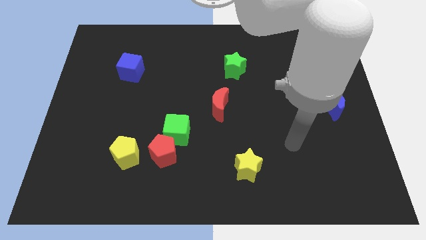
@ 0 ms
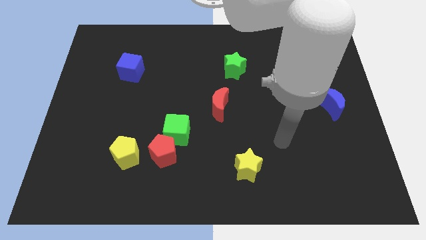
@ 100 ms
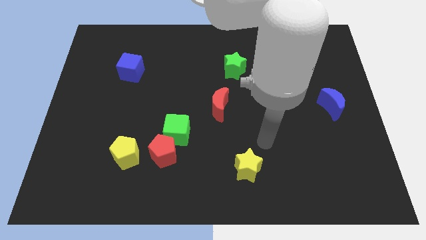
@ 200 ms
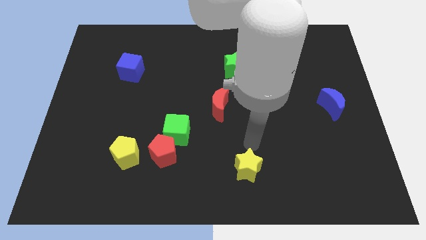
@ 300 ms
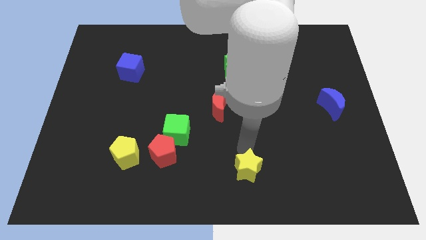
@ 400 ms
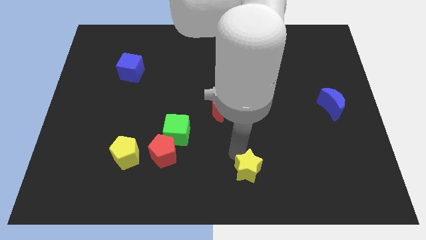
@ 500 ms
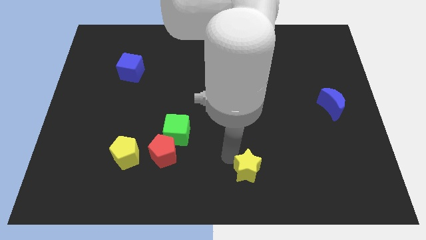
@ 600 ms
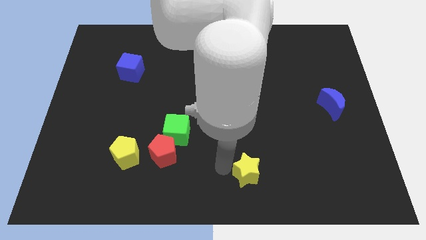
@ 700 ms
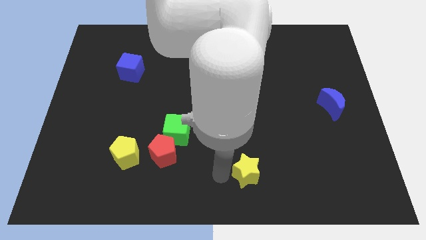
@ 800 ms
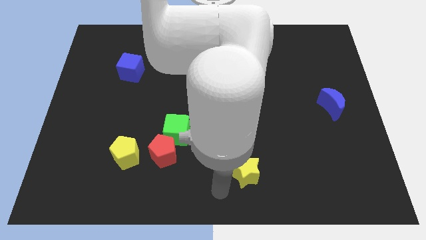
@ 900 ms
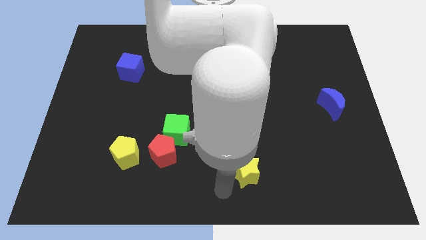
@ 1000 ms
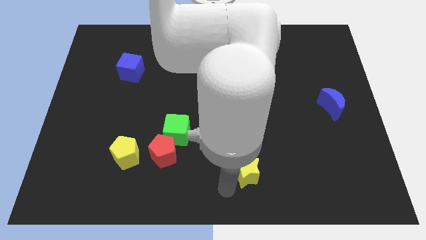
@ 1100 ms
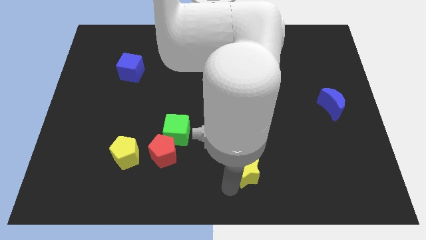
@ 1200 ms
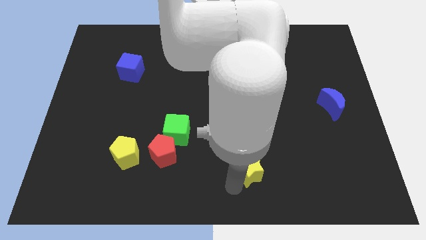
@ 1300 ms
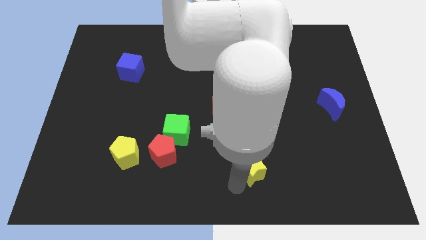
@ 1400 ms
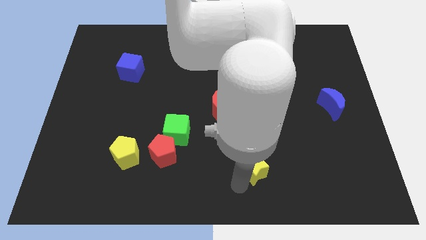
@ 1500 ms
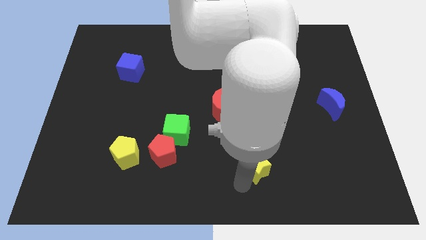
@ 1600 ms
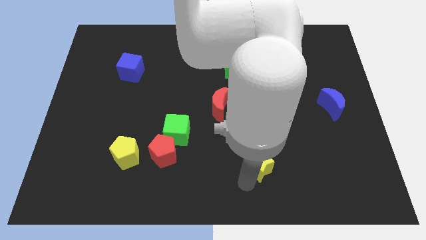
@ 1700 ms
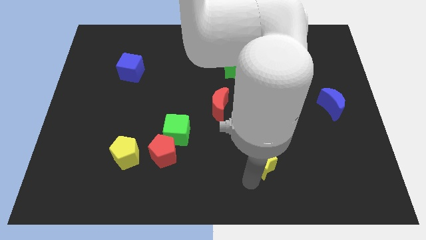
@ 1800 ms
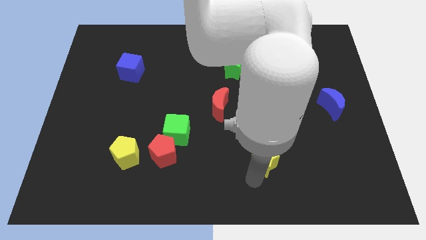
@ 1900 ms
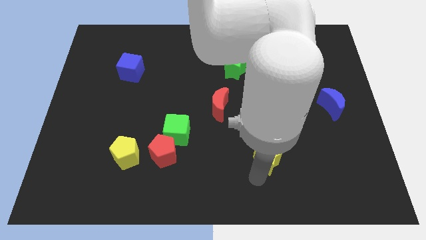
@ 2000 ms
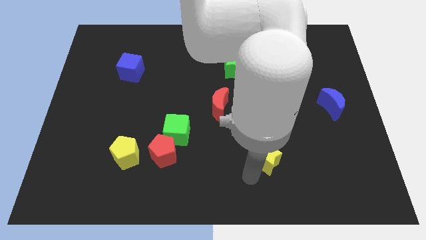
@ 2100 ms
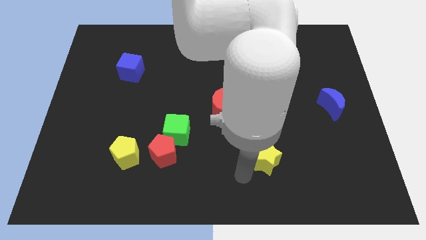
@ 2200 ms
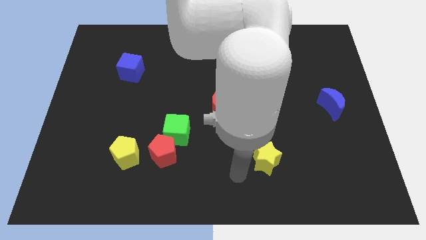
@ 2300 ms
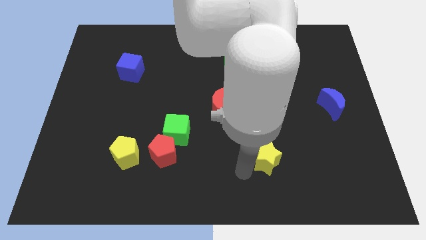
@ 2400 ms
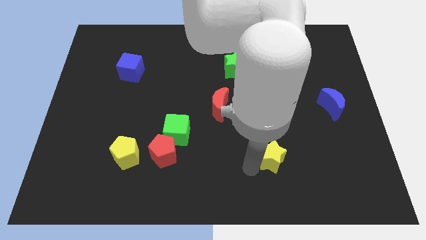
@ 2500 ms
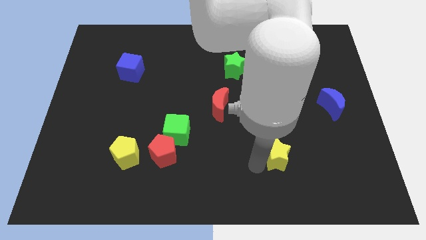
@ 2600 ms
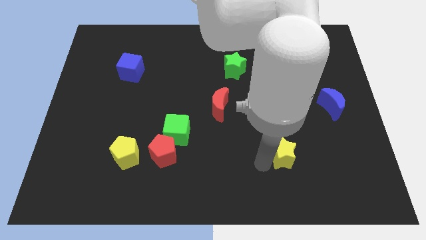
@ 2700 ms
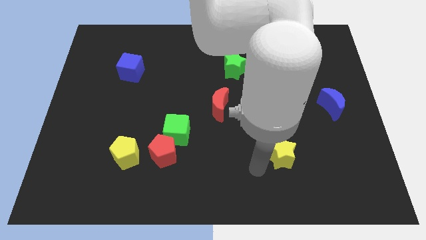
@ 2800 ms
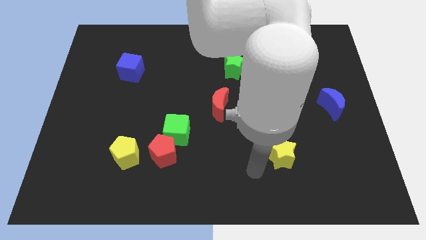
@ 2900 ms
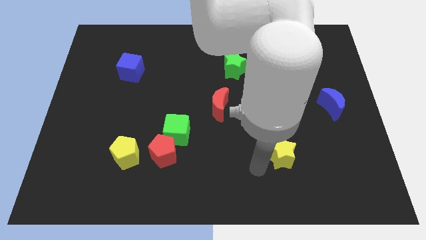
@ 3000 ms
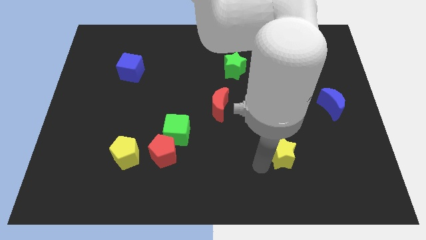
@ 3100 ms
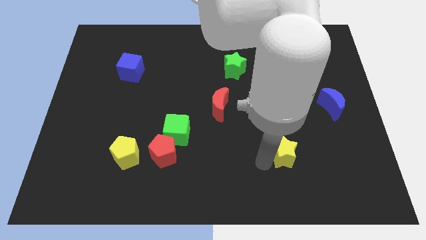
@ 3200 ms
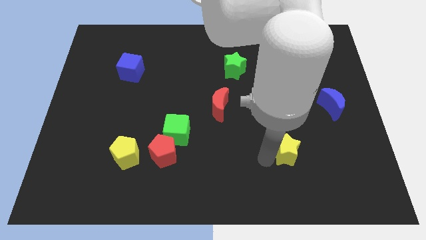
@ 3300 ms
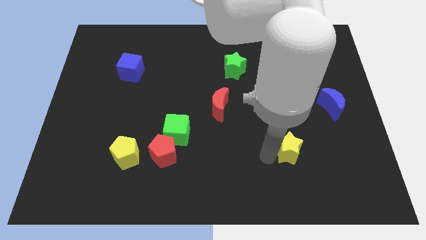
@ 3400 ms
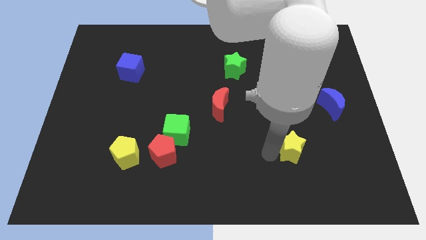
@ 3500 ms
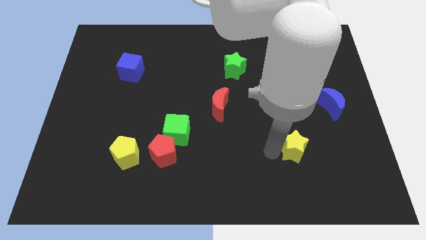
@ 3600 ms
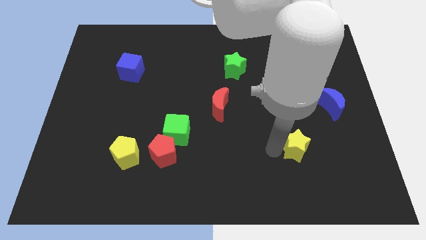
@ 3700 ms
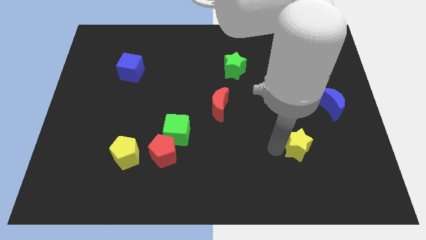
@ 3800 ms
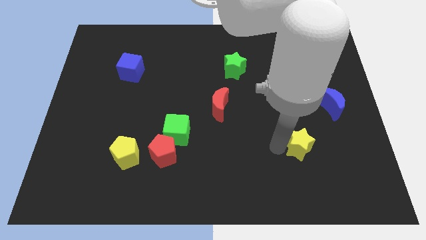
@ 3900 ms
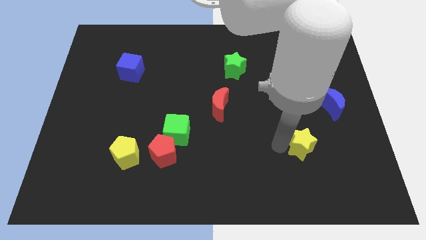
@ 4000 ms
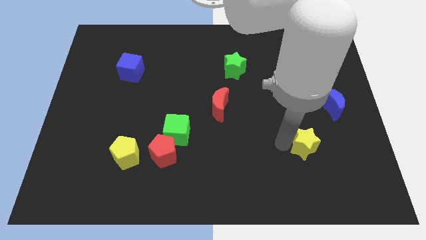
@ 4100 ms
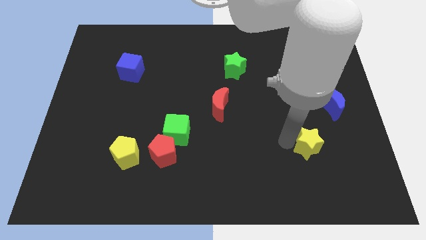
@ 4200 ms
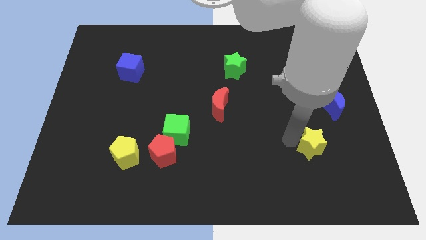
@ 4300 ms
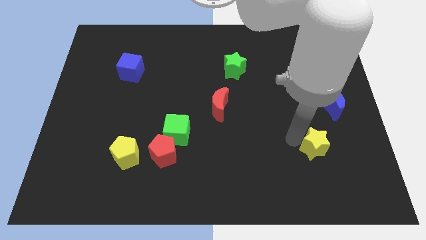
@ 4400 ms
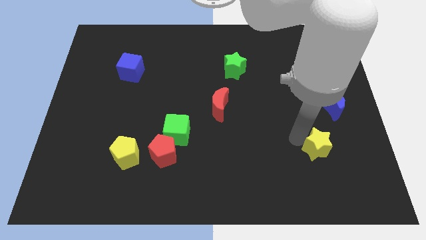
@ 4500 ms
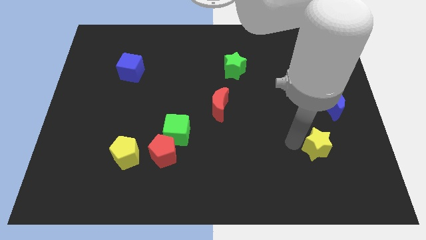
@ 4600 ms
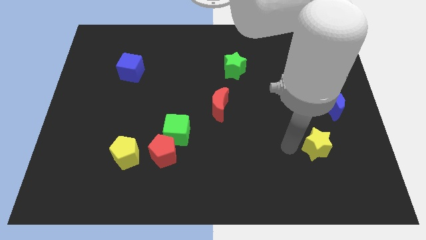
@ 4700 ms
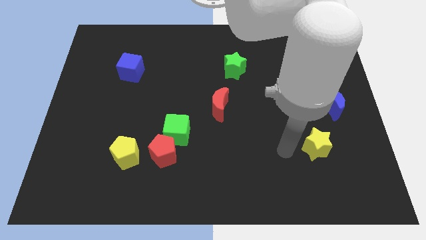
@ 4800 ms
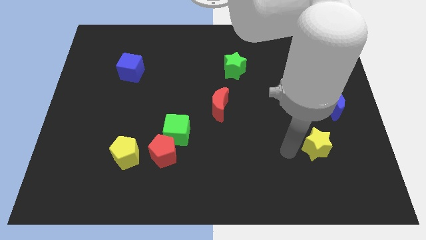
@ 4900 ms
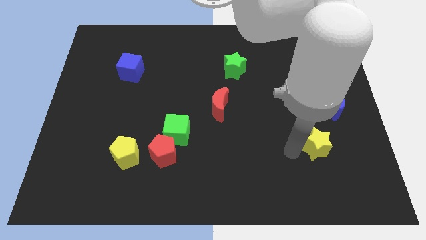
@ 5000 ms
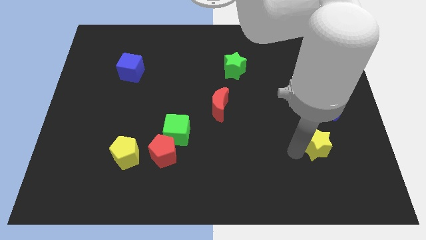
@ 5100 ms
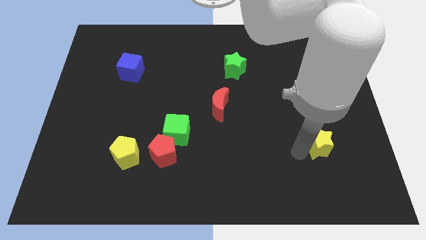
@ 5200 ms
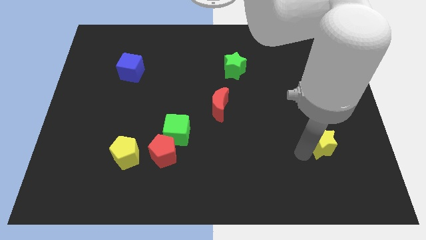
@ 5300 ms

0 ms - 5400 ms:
push the yellow star below the blue moon

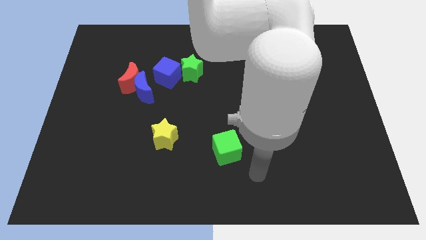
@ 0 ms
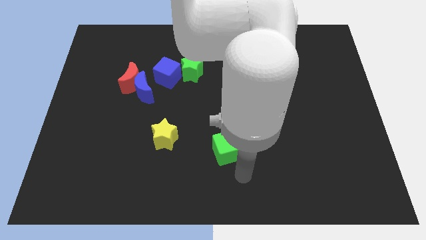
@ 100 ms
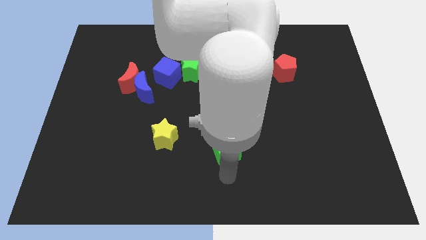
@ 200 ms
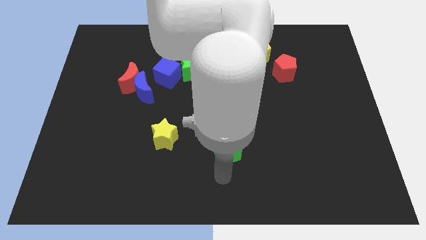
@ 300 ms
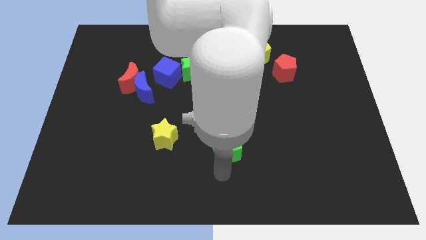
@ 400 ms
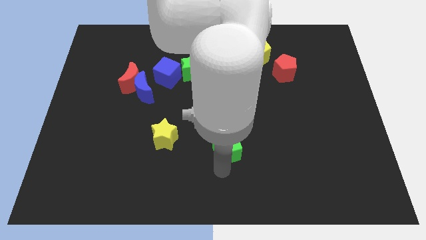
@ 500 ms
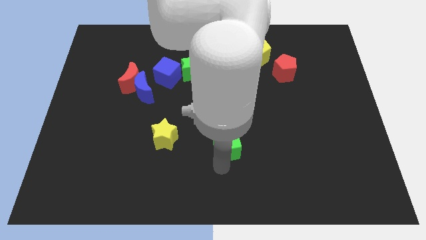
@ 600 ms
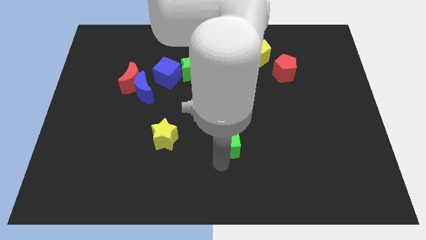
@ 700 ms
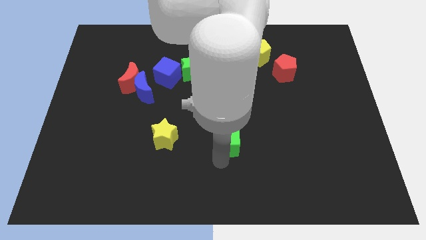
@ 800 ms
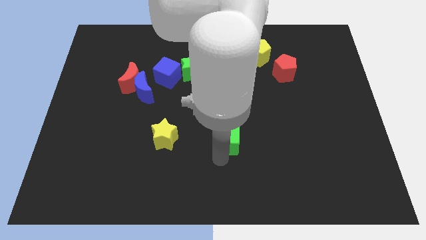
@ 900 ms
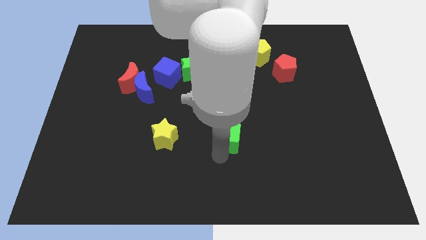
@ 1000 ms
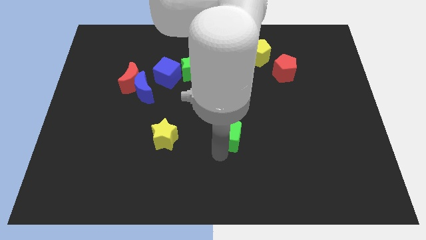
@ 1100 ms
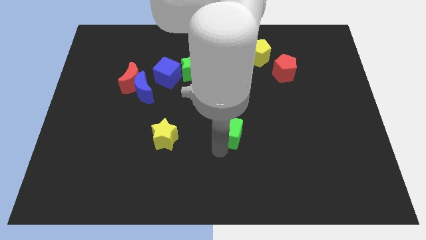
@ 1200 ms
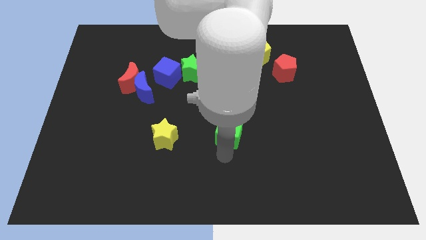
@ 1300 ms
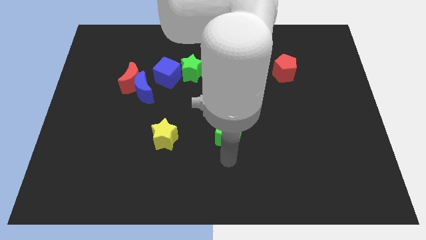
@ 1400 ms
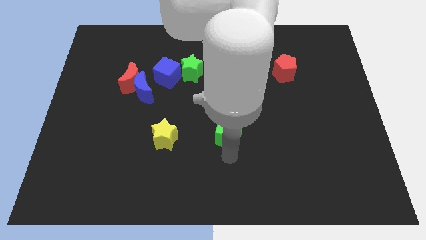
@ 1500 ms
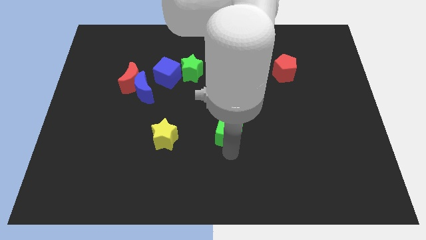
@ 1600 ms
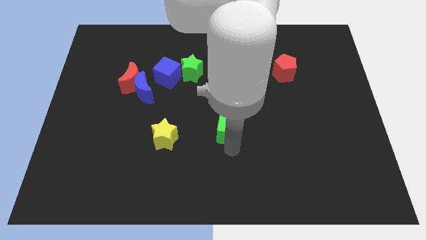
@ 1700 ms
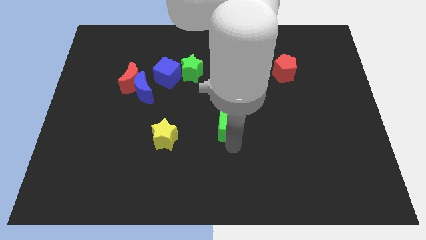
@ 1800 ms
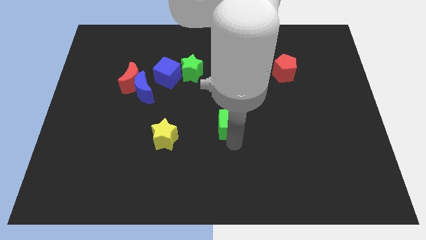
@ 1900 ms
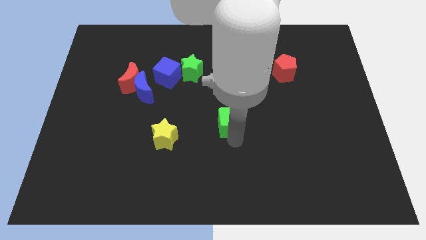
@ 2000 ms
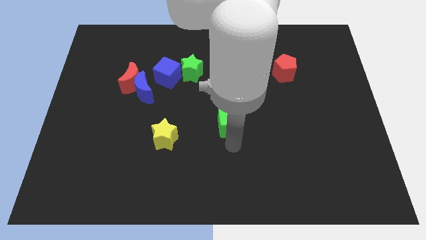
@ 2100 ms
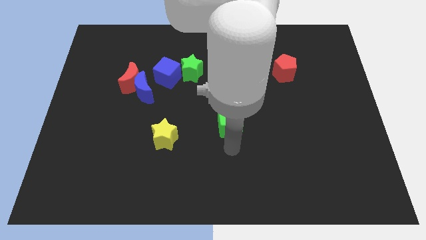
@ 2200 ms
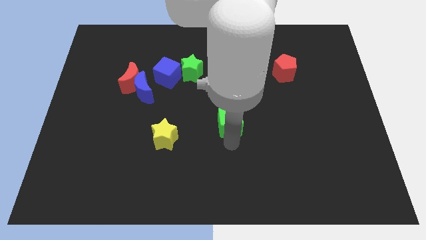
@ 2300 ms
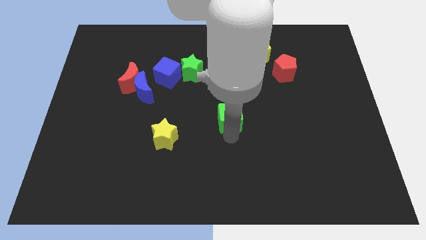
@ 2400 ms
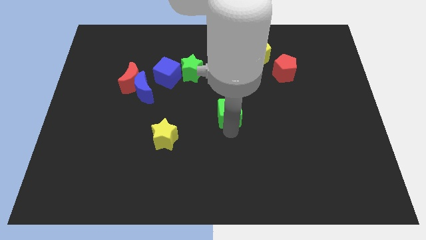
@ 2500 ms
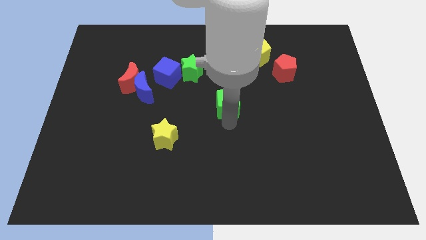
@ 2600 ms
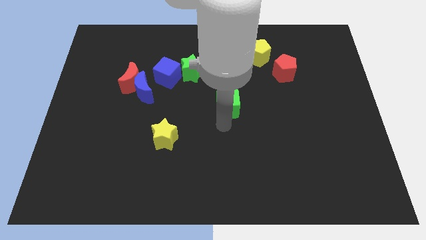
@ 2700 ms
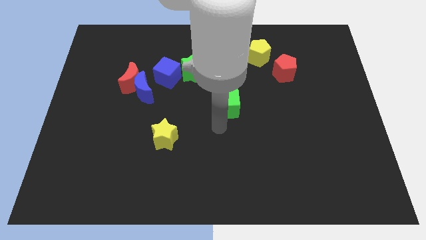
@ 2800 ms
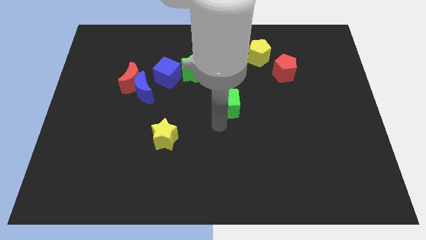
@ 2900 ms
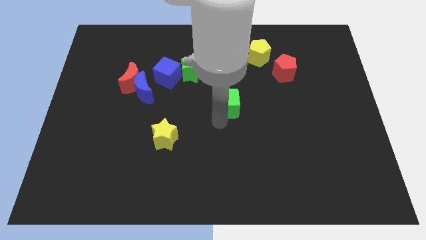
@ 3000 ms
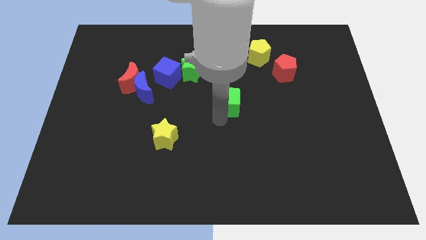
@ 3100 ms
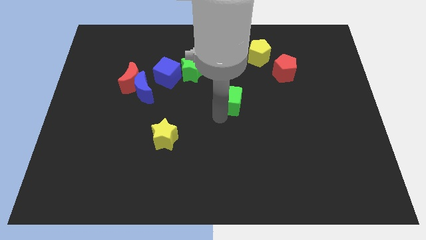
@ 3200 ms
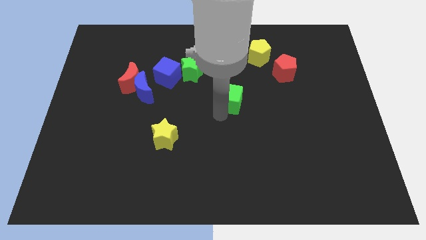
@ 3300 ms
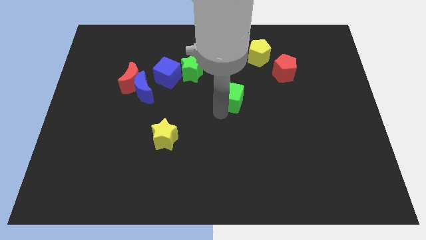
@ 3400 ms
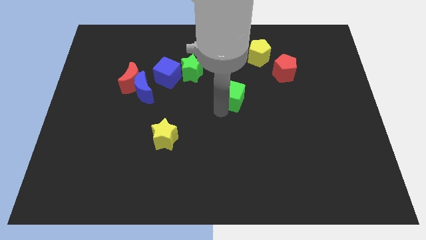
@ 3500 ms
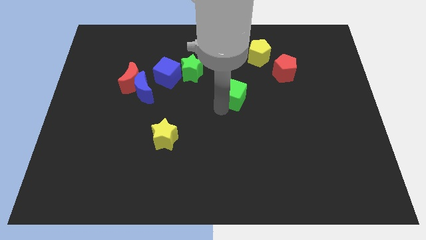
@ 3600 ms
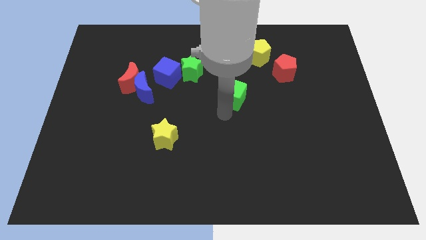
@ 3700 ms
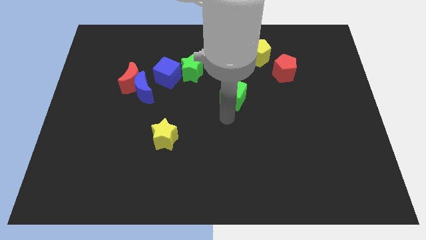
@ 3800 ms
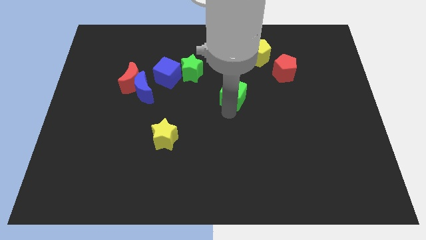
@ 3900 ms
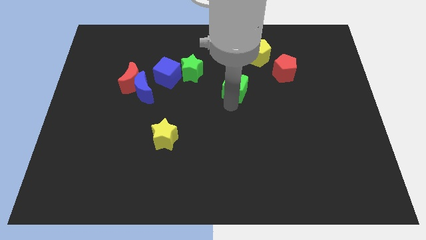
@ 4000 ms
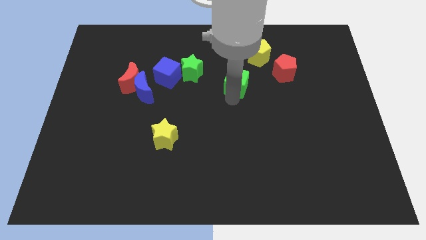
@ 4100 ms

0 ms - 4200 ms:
push the green cube diagonally down and to the left of the yellow pentagon
